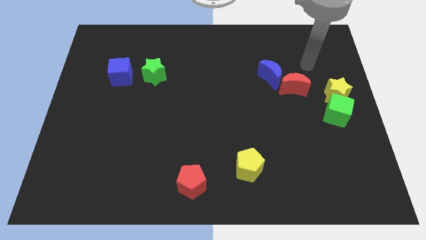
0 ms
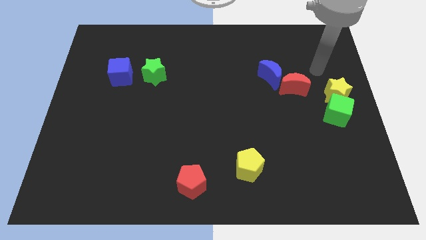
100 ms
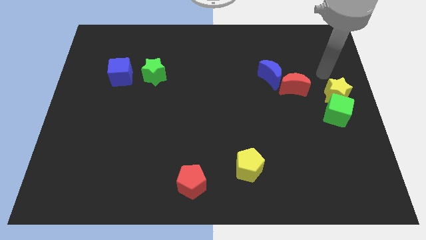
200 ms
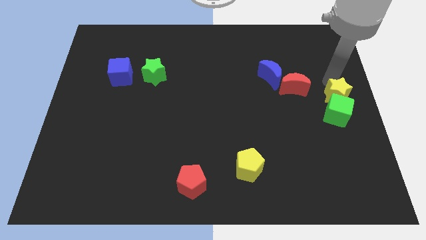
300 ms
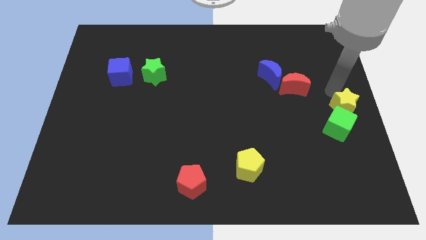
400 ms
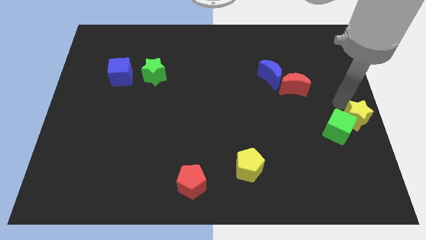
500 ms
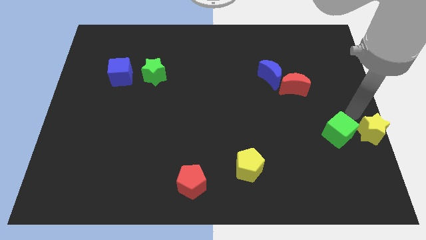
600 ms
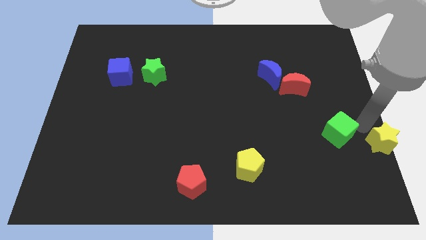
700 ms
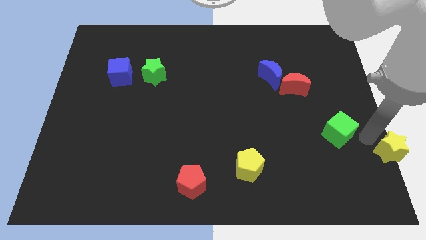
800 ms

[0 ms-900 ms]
pull the green cube apart from the yellow star

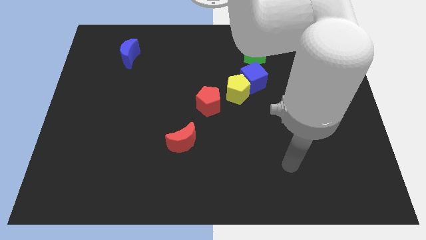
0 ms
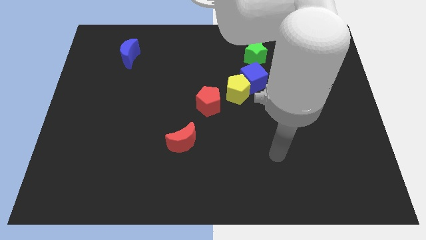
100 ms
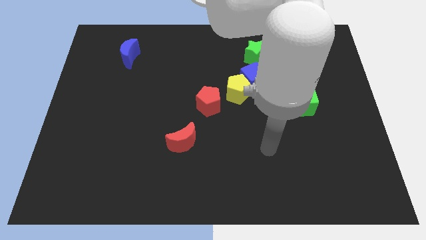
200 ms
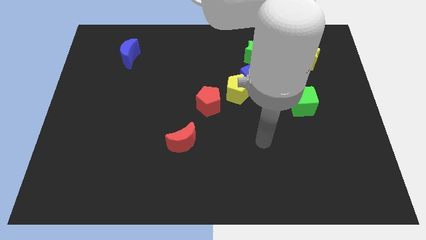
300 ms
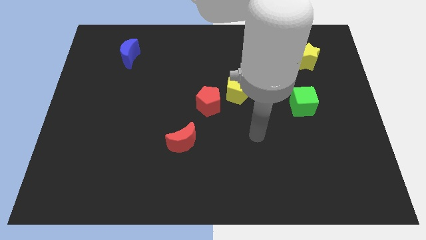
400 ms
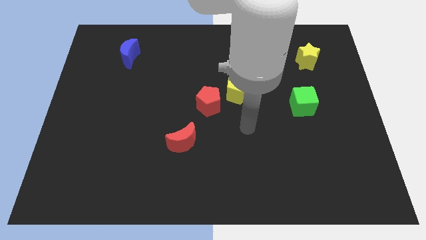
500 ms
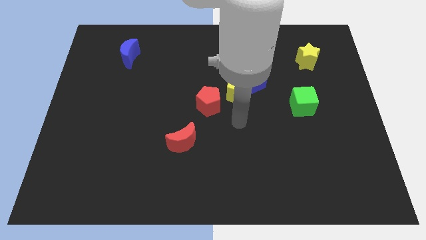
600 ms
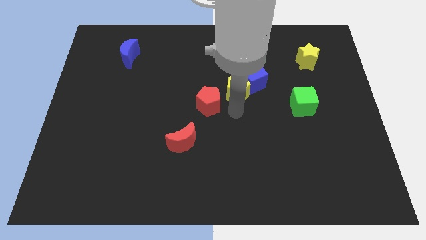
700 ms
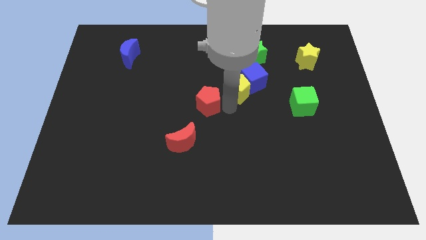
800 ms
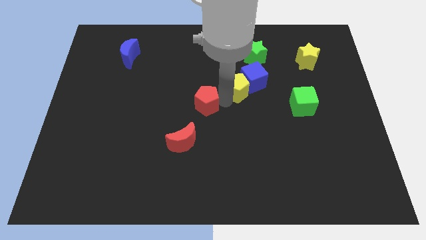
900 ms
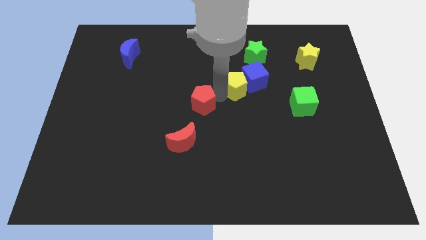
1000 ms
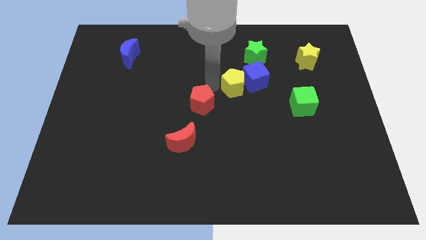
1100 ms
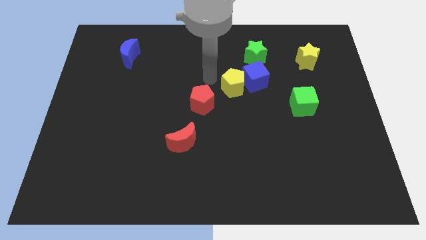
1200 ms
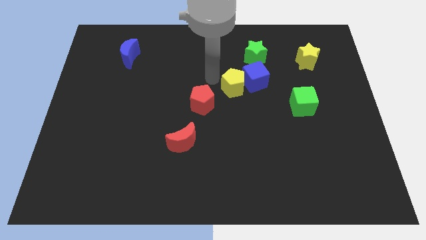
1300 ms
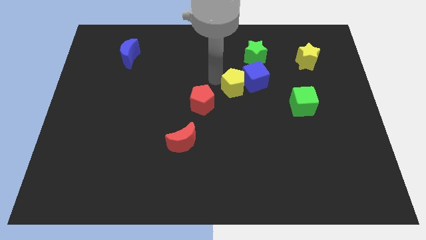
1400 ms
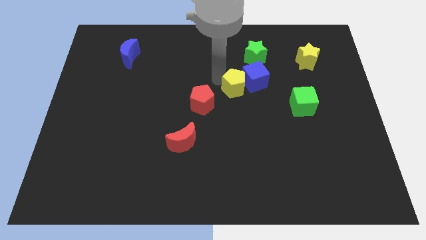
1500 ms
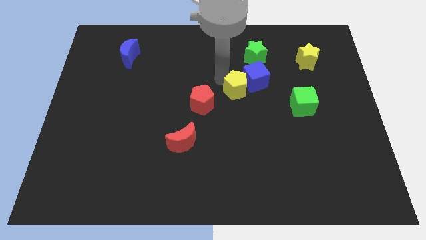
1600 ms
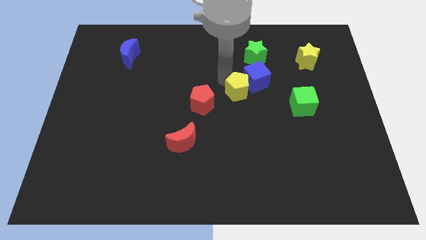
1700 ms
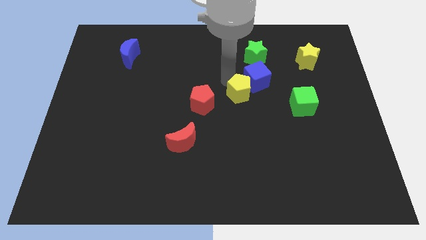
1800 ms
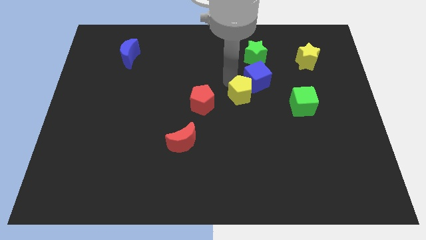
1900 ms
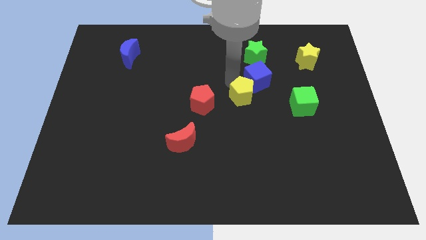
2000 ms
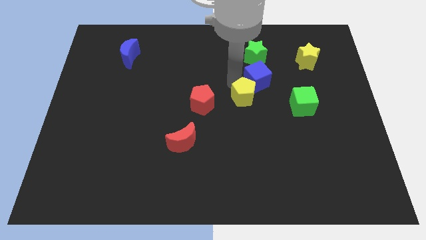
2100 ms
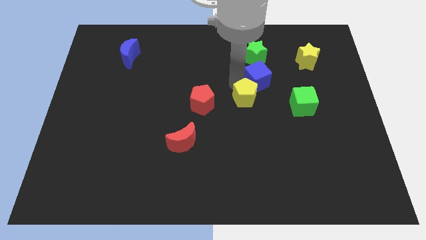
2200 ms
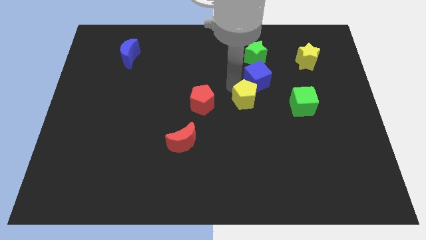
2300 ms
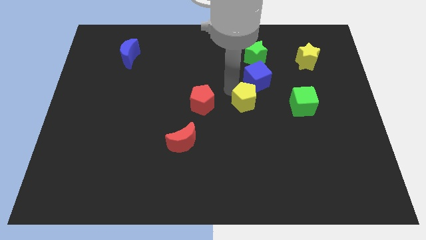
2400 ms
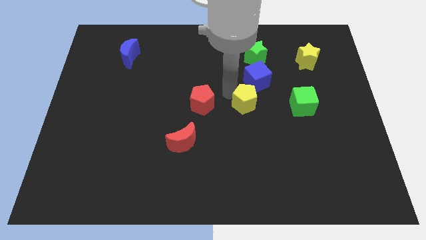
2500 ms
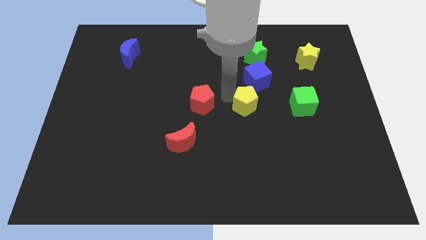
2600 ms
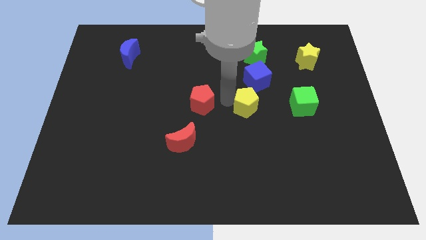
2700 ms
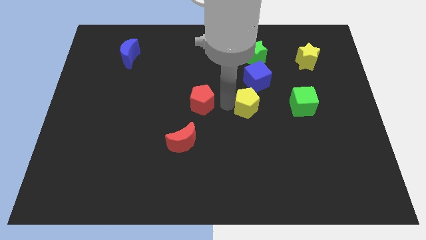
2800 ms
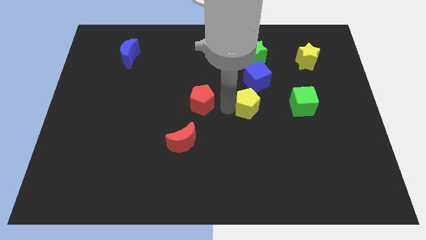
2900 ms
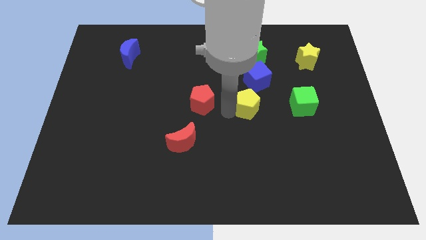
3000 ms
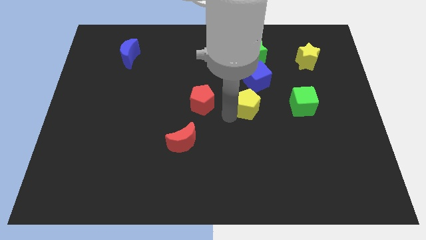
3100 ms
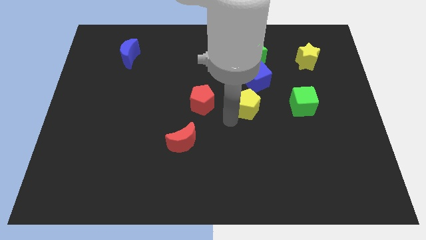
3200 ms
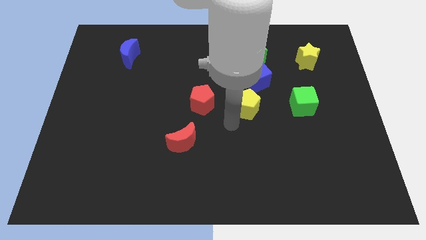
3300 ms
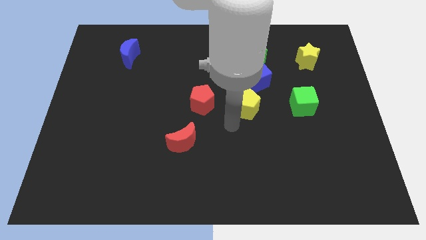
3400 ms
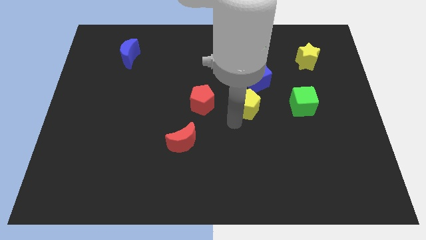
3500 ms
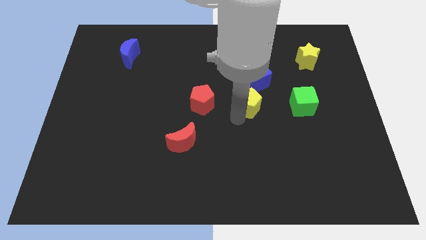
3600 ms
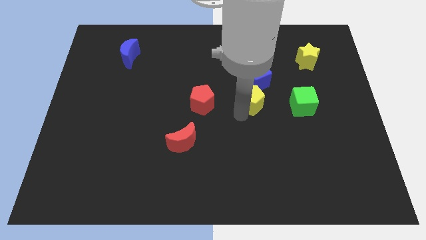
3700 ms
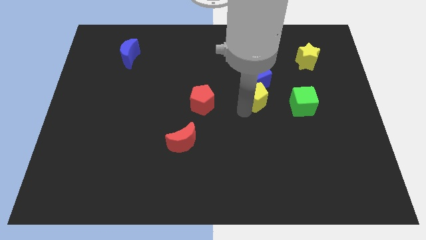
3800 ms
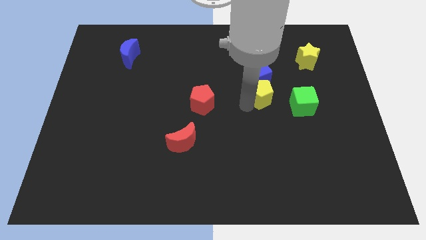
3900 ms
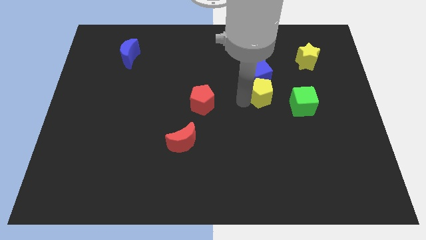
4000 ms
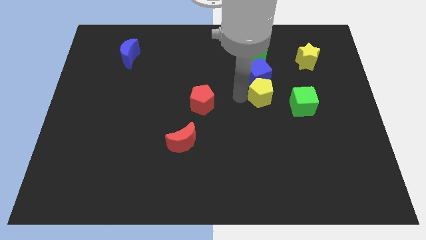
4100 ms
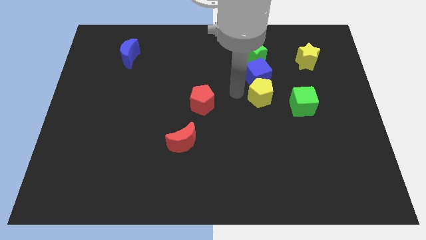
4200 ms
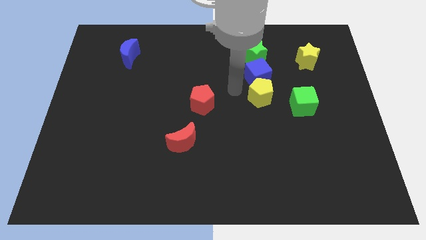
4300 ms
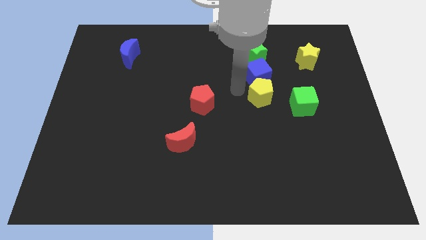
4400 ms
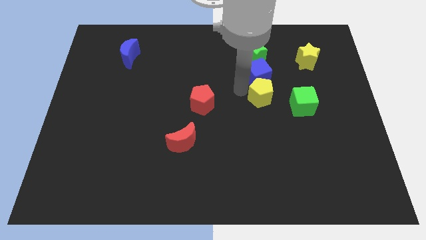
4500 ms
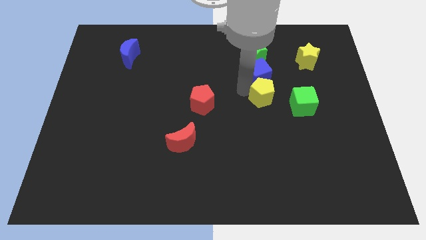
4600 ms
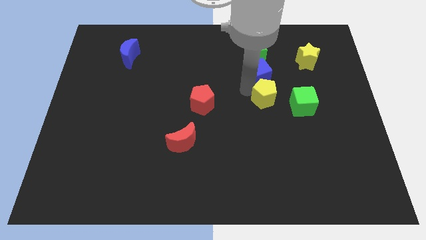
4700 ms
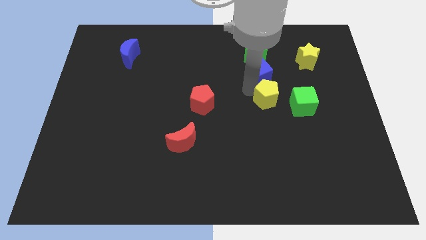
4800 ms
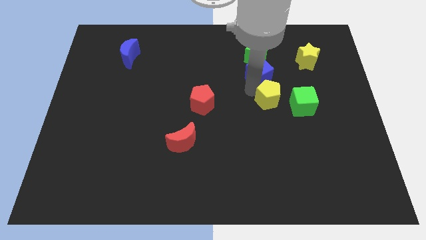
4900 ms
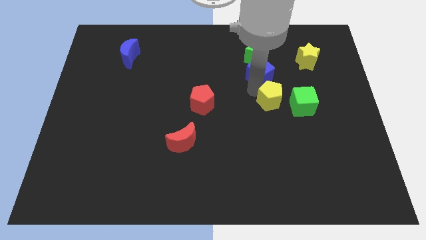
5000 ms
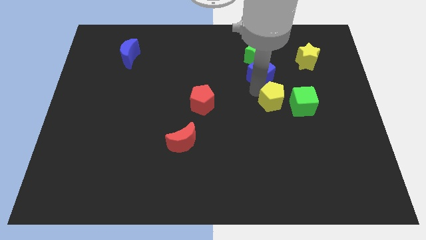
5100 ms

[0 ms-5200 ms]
pull the yellow pentagon apart from the blue cube and red pentagon

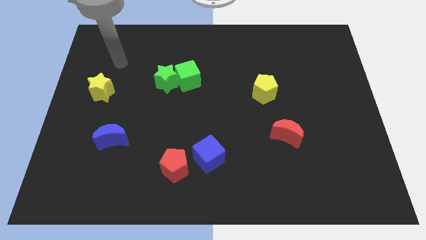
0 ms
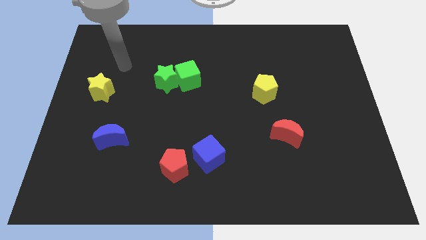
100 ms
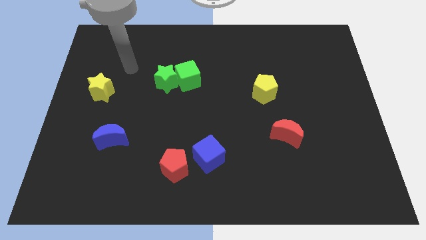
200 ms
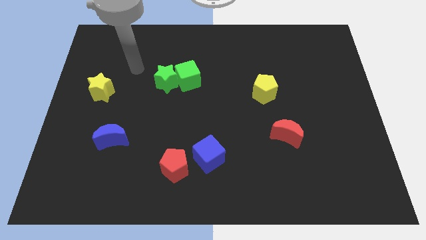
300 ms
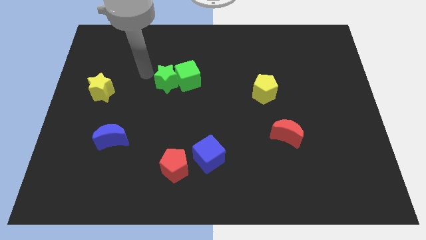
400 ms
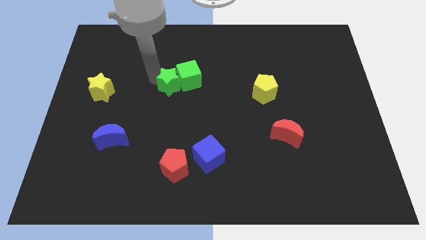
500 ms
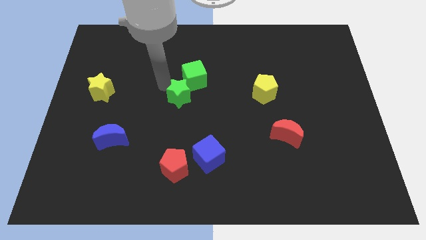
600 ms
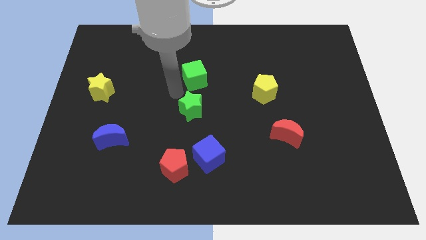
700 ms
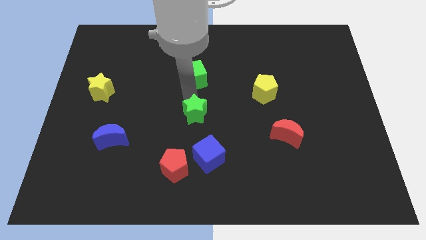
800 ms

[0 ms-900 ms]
move the green cube away from the green star

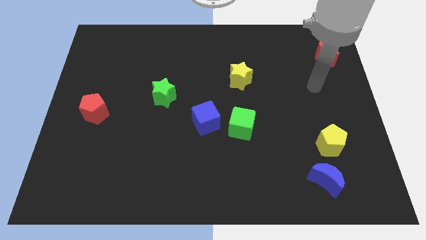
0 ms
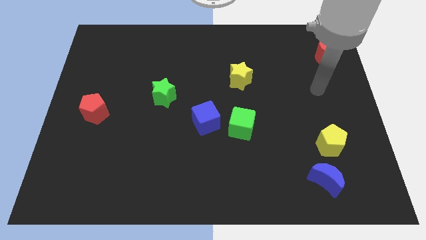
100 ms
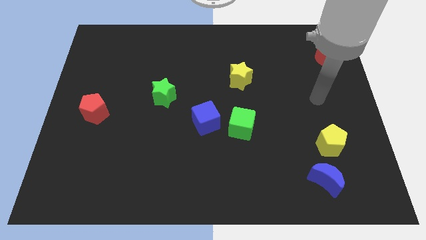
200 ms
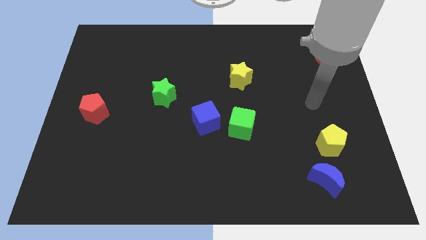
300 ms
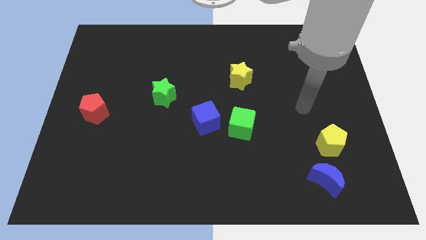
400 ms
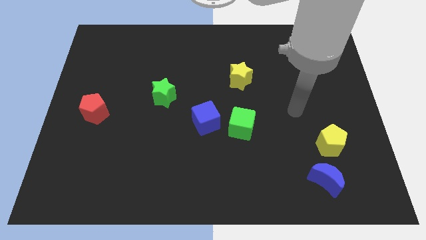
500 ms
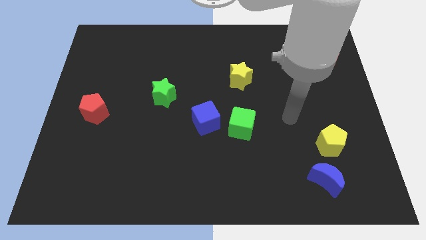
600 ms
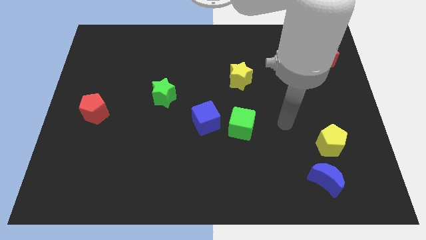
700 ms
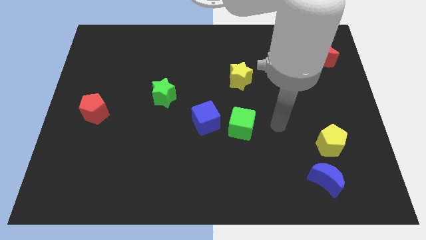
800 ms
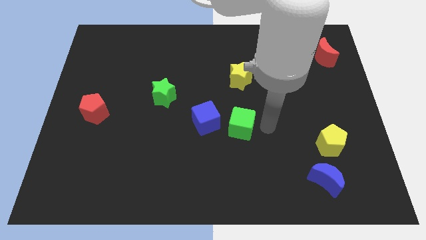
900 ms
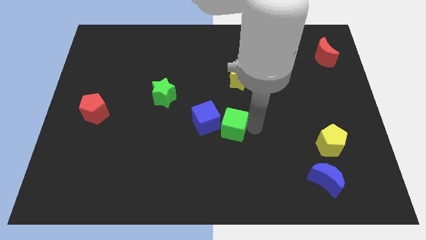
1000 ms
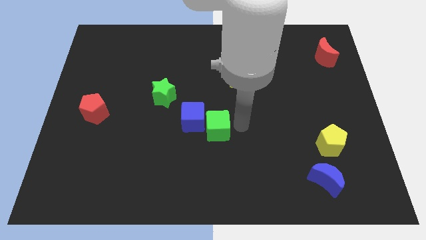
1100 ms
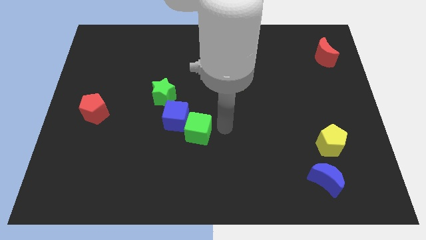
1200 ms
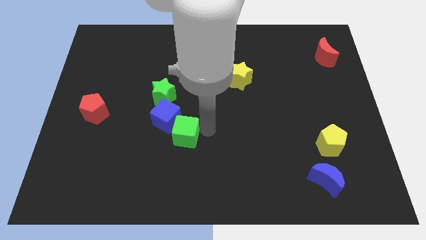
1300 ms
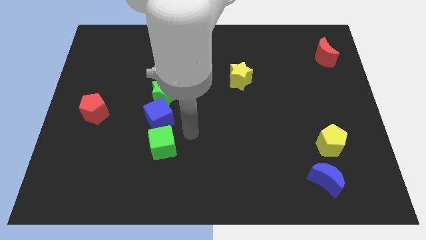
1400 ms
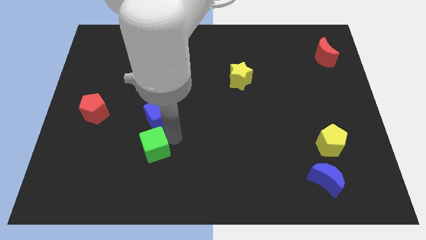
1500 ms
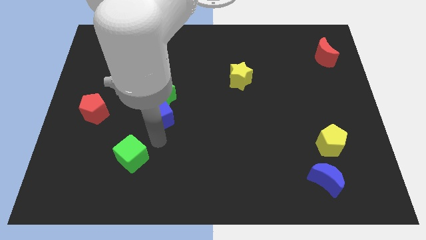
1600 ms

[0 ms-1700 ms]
move the blue cube away from the green cube

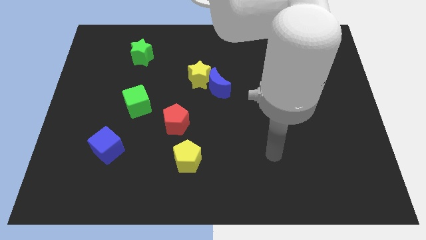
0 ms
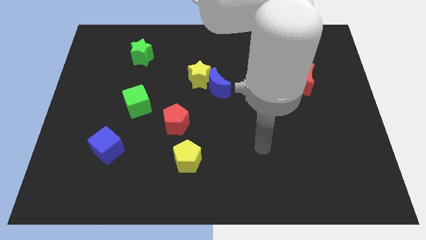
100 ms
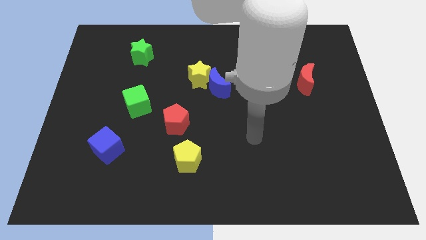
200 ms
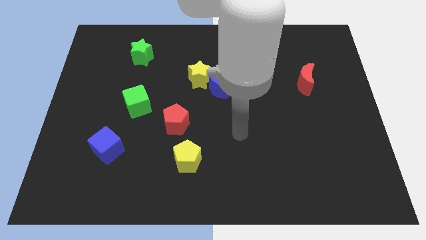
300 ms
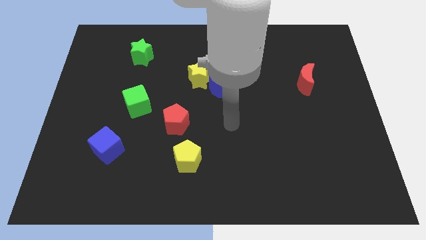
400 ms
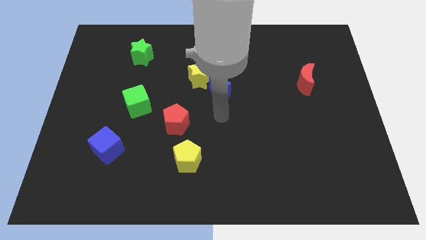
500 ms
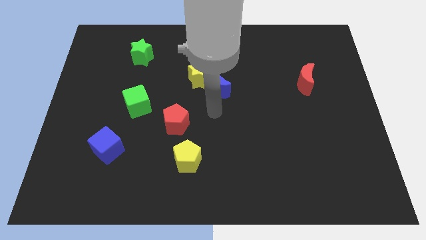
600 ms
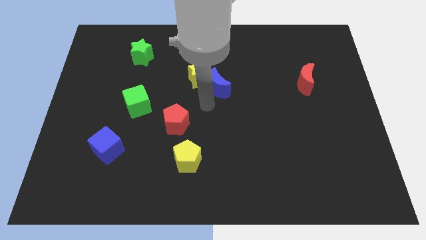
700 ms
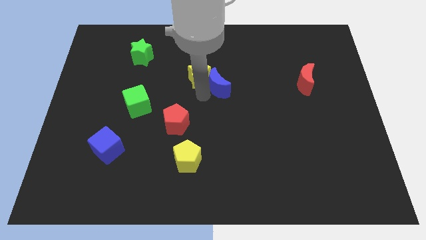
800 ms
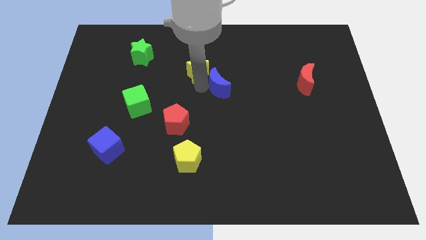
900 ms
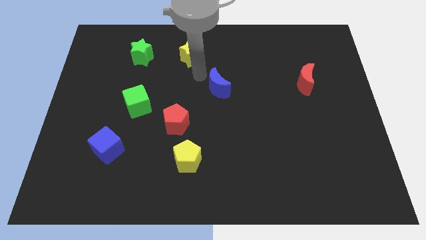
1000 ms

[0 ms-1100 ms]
move the blue moon away from the yellow star
